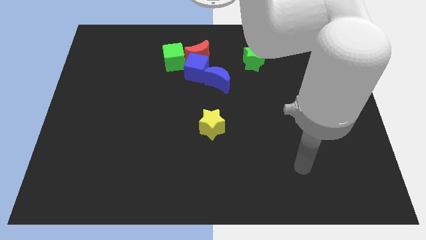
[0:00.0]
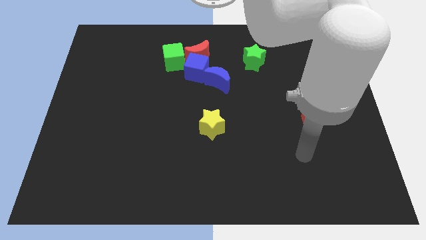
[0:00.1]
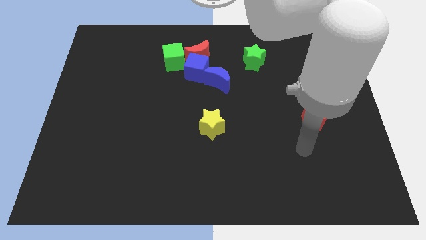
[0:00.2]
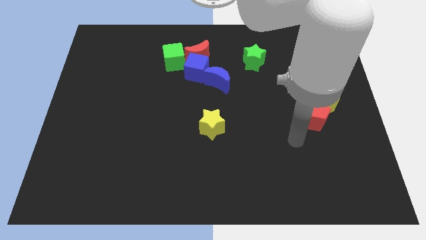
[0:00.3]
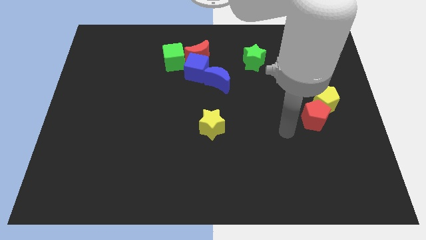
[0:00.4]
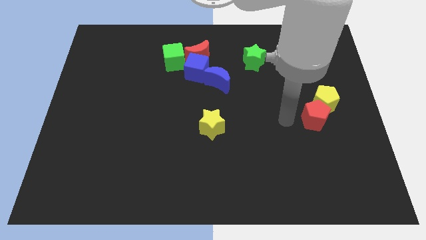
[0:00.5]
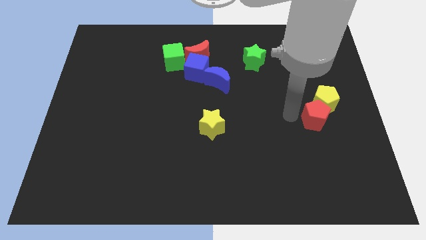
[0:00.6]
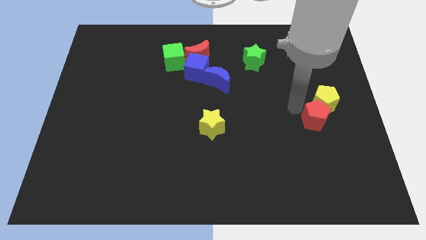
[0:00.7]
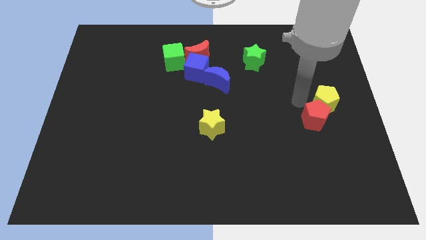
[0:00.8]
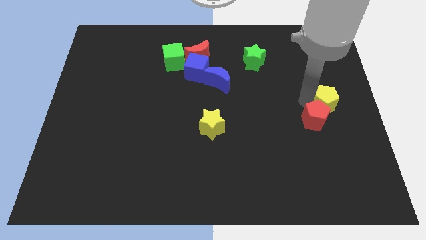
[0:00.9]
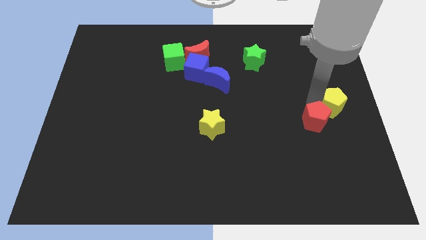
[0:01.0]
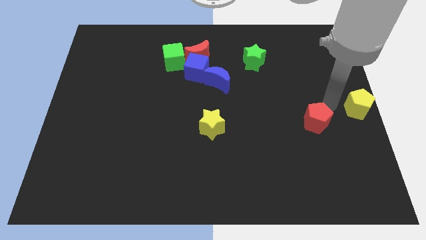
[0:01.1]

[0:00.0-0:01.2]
pull the red pentagon apart from the yellow pentagon

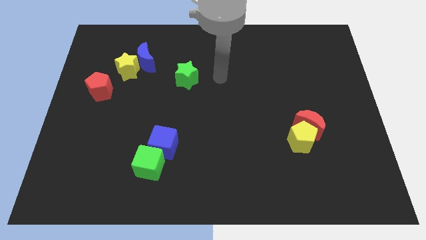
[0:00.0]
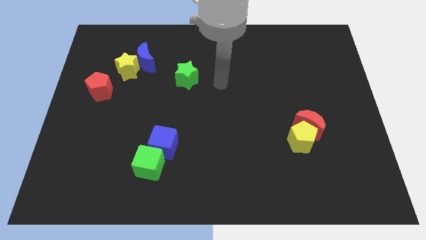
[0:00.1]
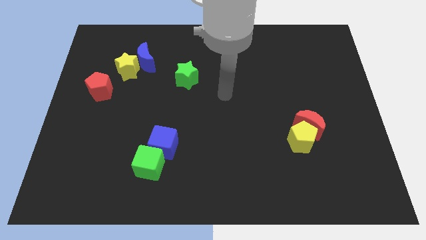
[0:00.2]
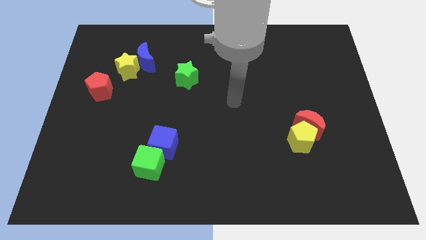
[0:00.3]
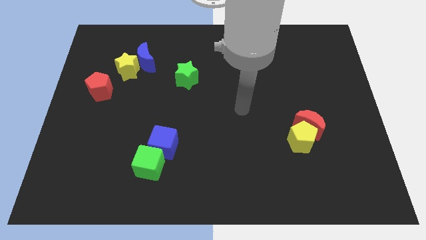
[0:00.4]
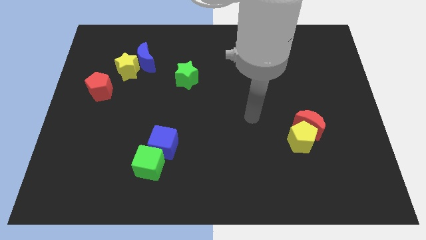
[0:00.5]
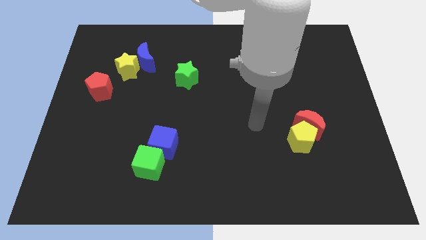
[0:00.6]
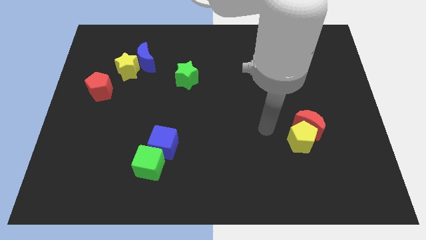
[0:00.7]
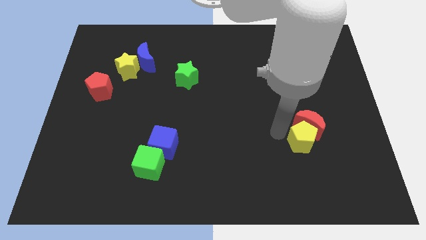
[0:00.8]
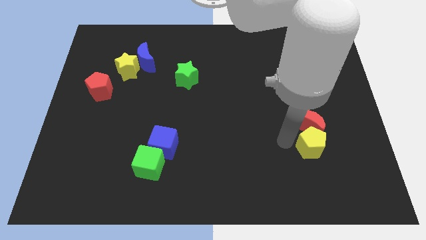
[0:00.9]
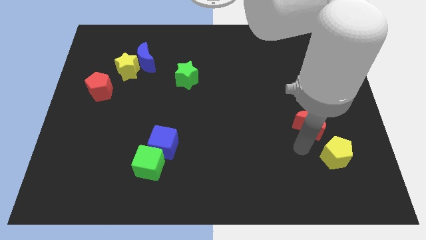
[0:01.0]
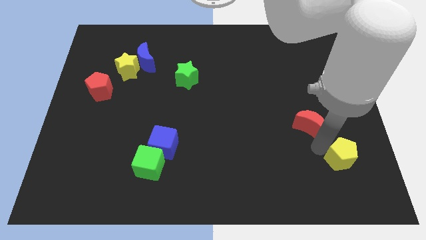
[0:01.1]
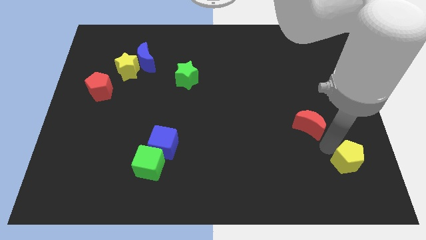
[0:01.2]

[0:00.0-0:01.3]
separate the red moon from the yellow pentagon

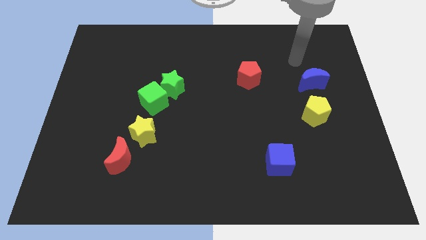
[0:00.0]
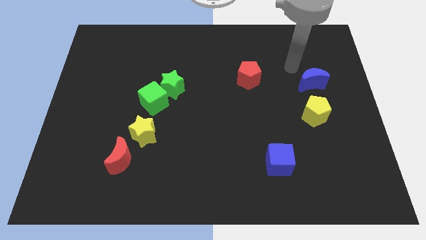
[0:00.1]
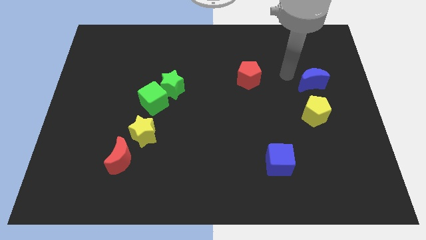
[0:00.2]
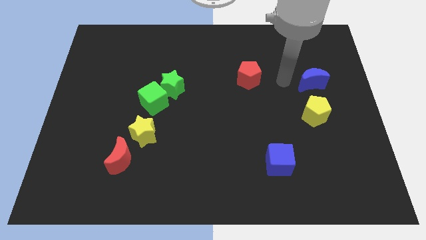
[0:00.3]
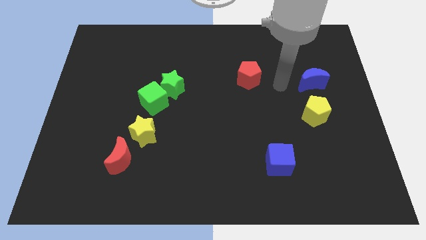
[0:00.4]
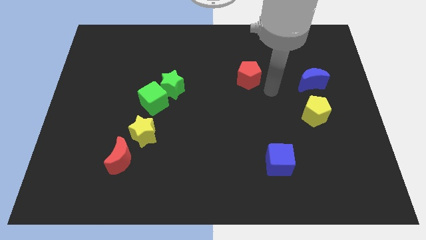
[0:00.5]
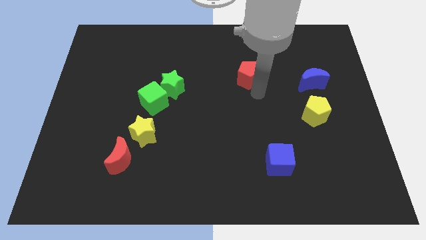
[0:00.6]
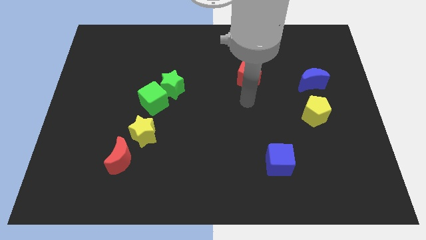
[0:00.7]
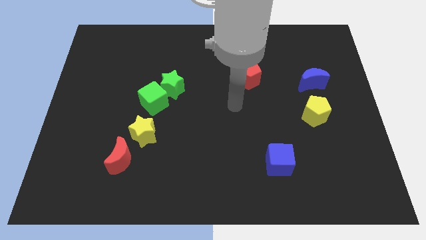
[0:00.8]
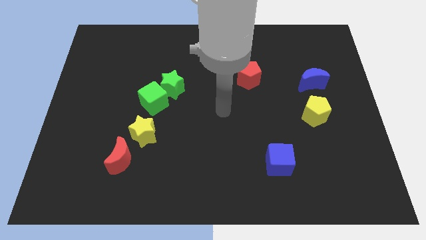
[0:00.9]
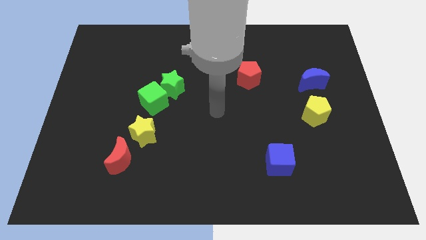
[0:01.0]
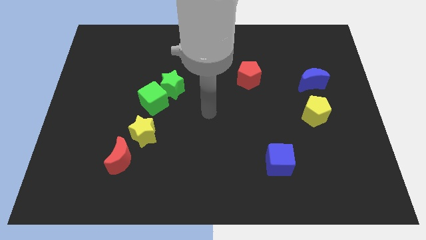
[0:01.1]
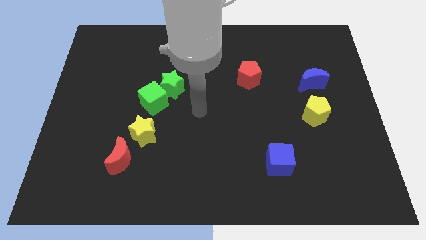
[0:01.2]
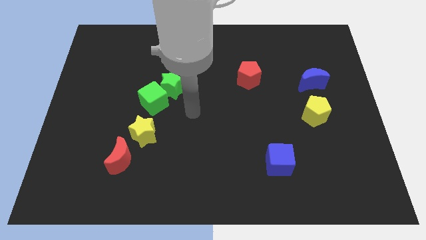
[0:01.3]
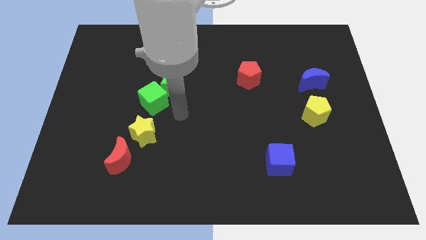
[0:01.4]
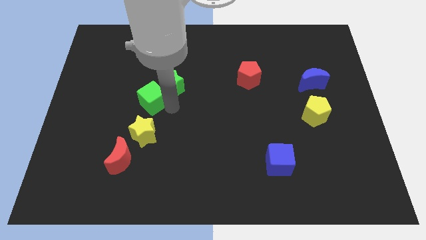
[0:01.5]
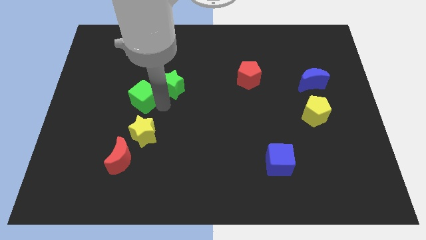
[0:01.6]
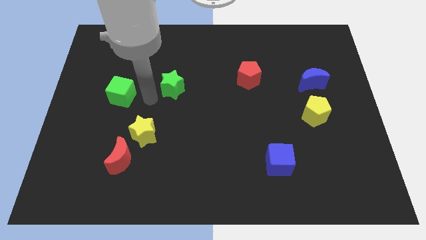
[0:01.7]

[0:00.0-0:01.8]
move the green star away from the green cube

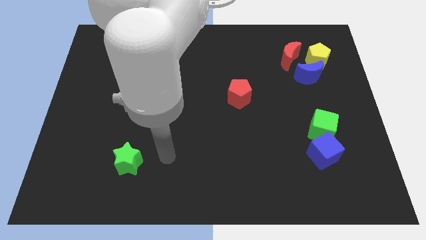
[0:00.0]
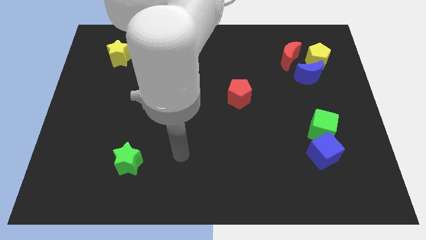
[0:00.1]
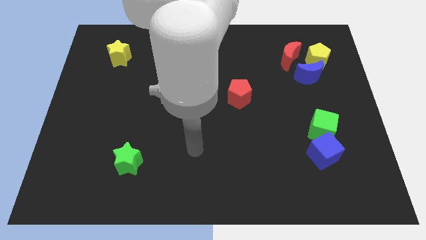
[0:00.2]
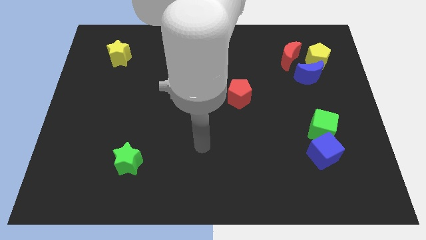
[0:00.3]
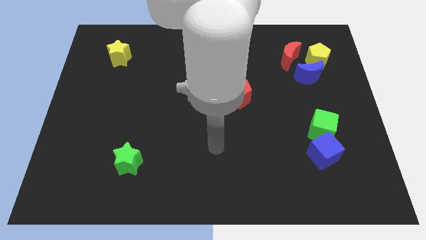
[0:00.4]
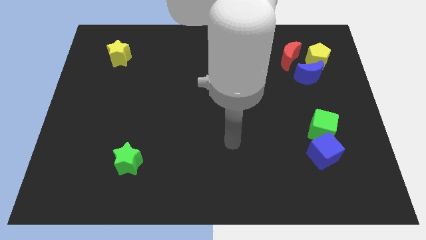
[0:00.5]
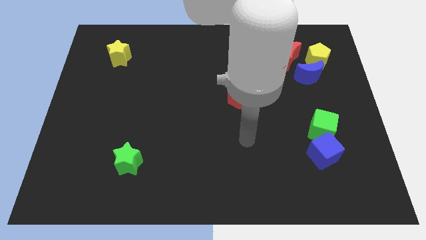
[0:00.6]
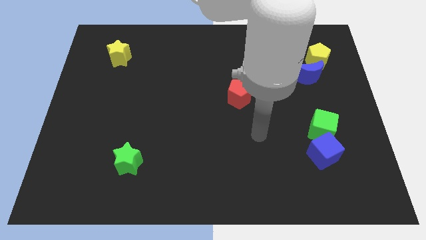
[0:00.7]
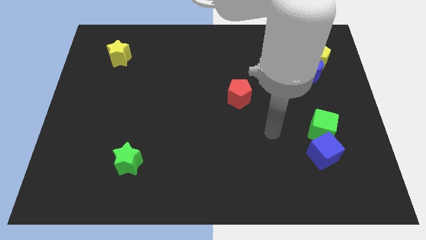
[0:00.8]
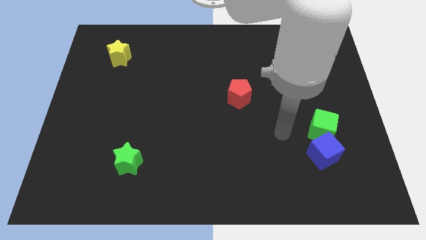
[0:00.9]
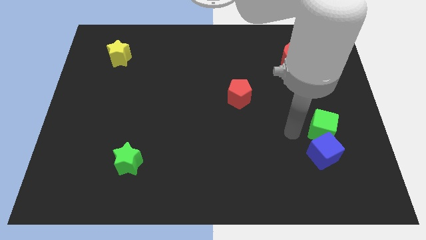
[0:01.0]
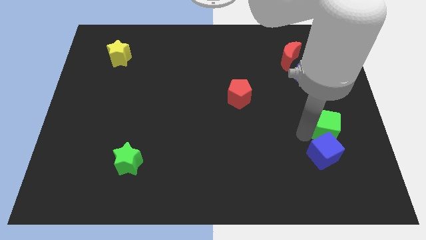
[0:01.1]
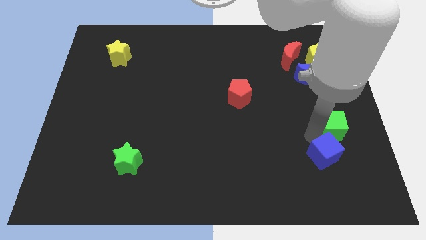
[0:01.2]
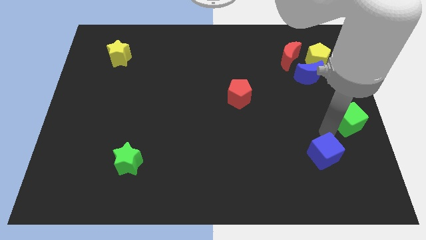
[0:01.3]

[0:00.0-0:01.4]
separate the blue cube from the green cube

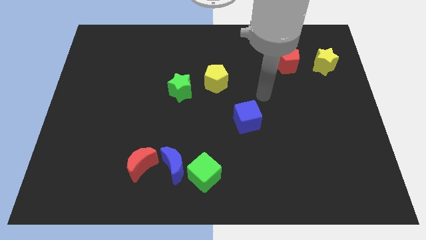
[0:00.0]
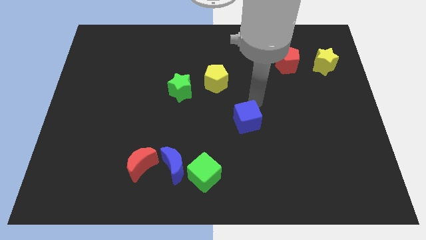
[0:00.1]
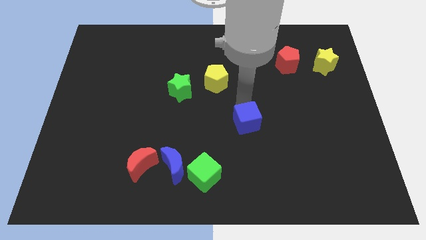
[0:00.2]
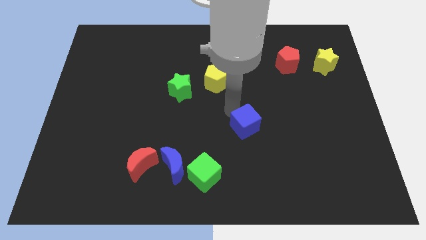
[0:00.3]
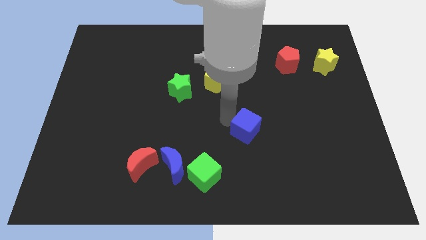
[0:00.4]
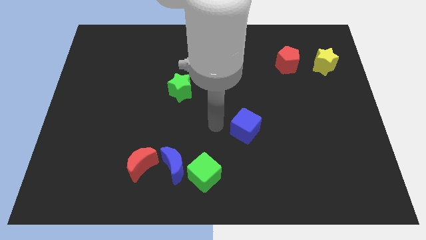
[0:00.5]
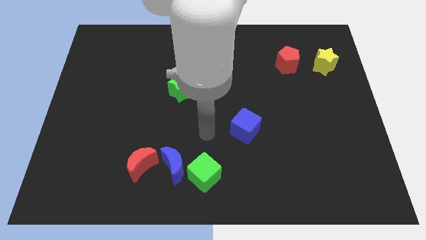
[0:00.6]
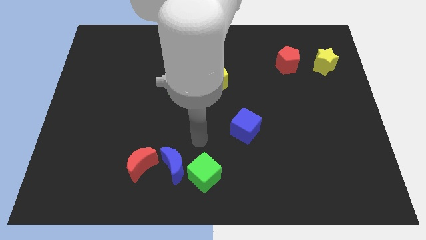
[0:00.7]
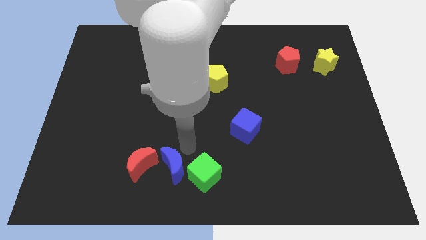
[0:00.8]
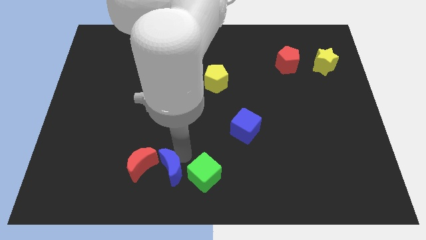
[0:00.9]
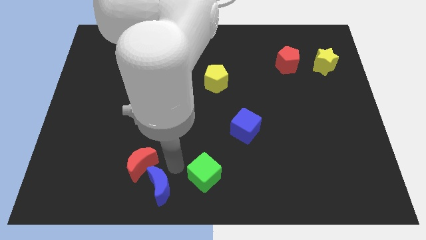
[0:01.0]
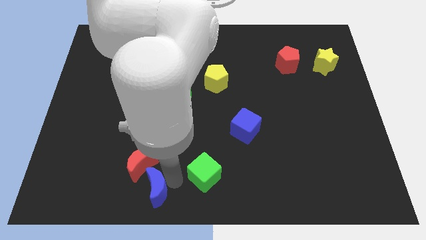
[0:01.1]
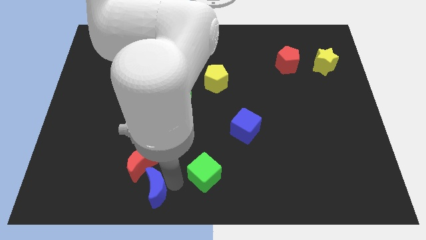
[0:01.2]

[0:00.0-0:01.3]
pull the green cube apart from the blue moon

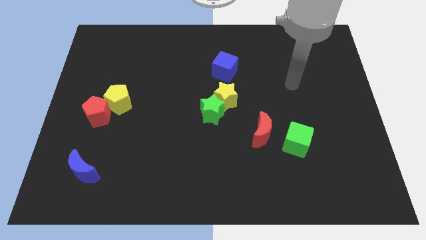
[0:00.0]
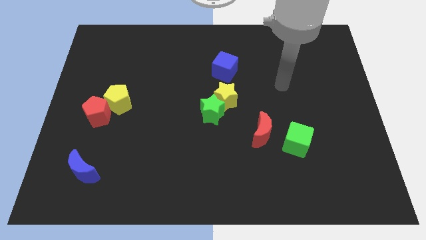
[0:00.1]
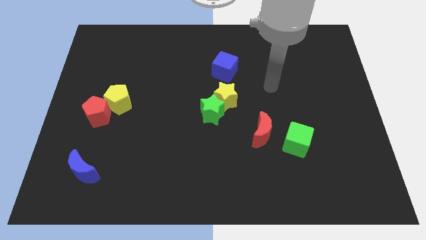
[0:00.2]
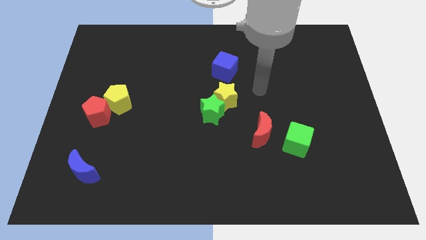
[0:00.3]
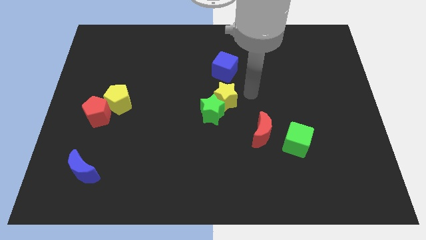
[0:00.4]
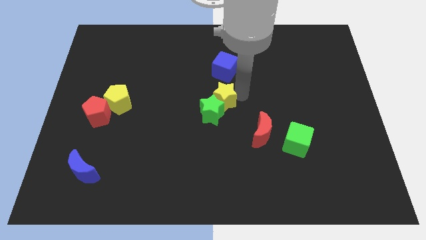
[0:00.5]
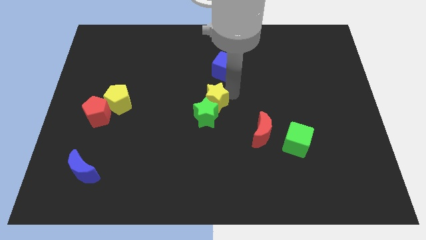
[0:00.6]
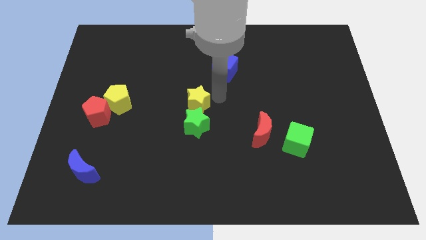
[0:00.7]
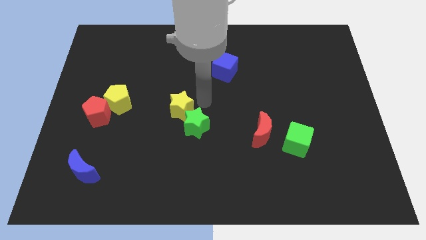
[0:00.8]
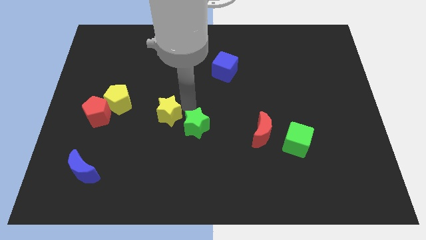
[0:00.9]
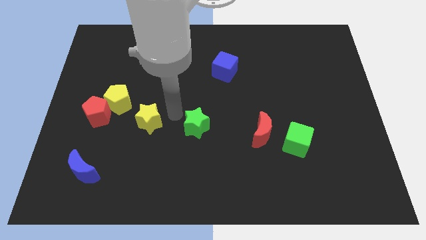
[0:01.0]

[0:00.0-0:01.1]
move the green star away from the yellow star

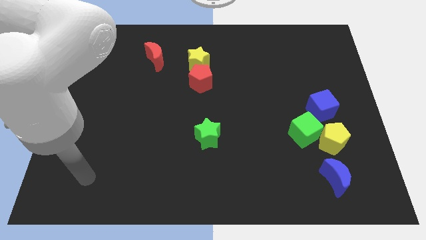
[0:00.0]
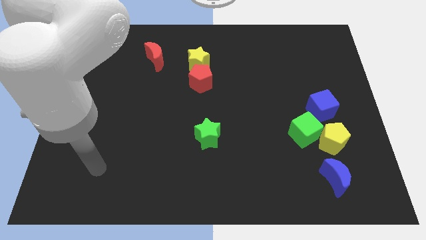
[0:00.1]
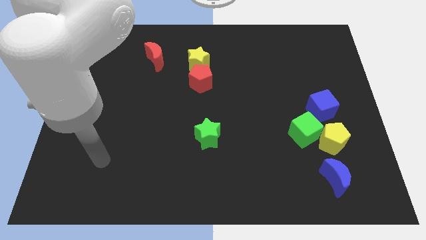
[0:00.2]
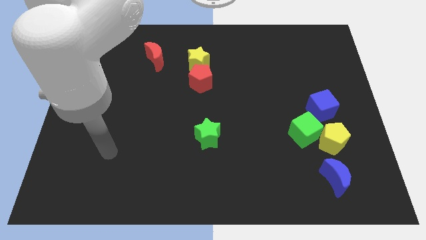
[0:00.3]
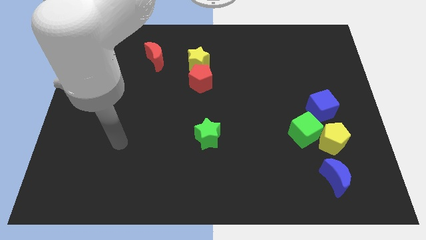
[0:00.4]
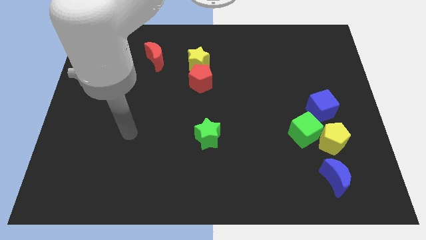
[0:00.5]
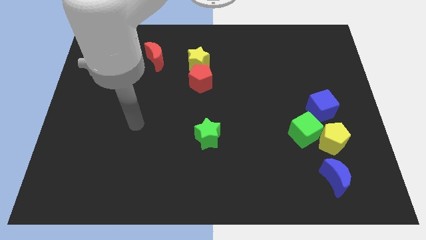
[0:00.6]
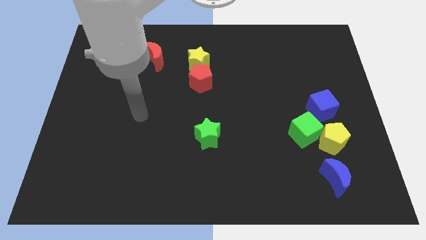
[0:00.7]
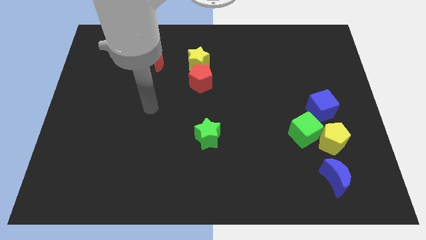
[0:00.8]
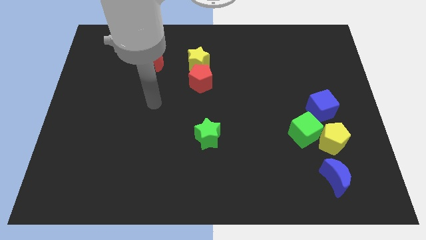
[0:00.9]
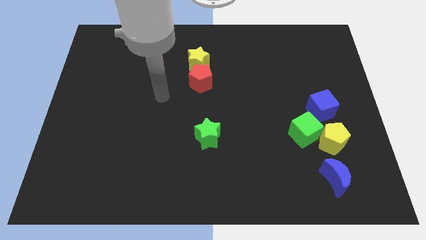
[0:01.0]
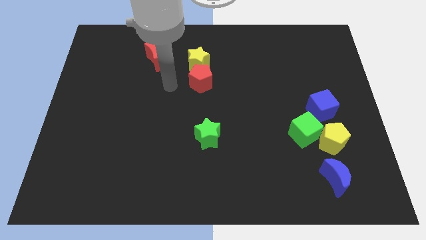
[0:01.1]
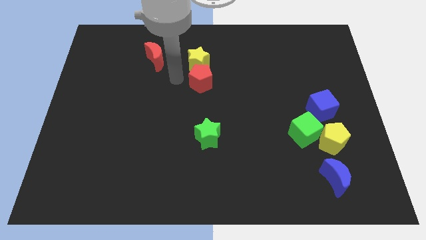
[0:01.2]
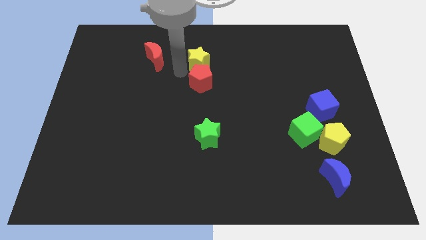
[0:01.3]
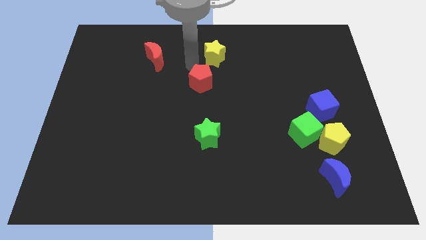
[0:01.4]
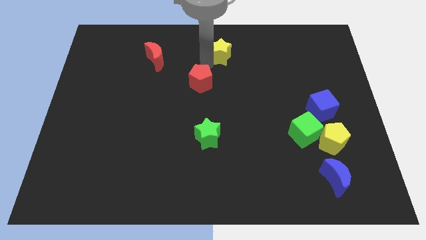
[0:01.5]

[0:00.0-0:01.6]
move the red pentagon away from the yellow star
